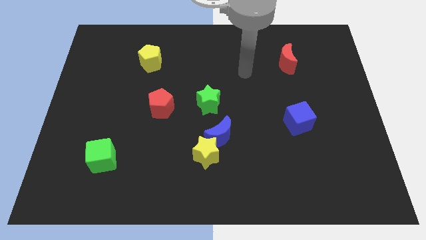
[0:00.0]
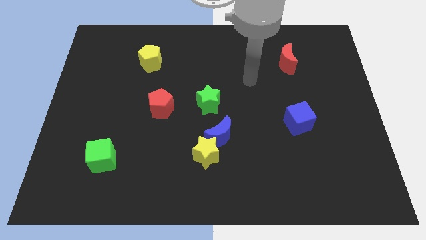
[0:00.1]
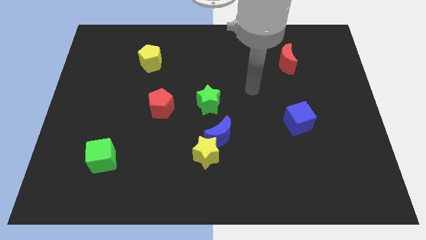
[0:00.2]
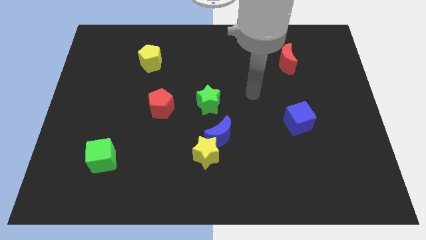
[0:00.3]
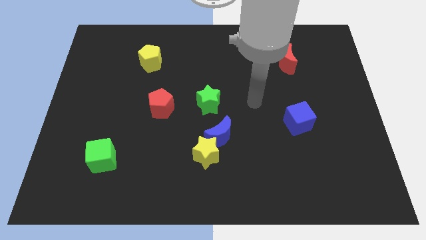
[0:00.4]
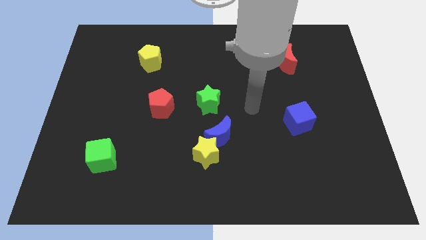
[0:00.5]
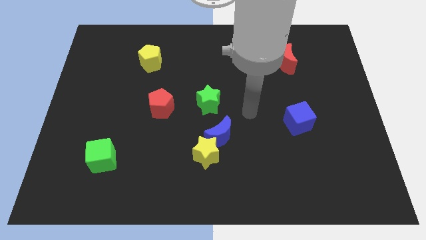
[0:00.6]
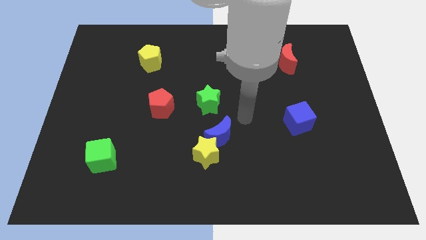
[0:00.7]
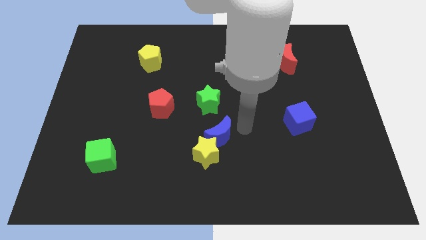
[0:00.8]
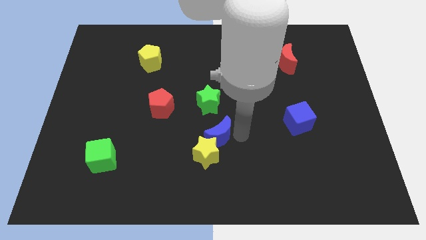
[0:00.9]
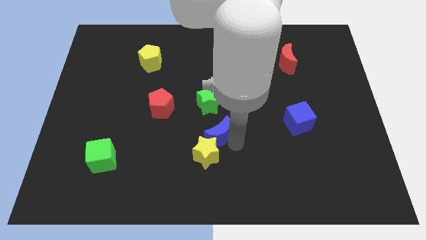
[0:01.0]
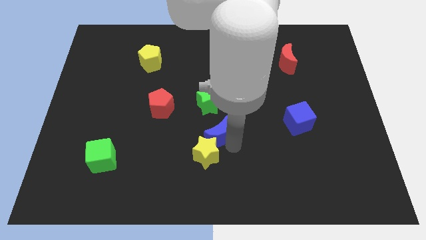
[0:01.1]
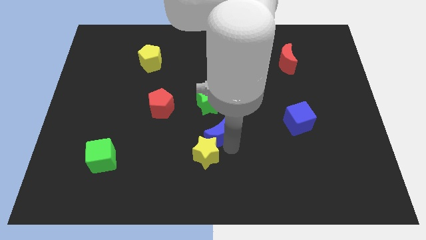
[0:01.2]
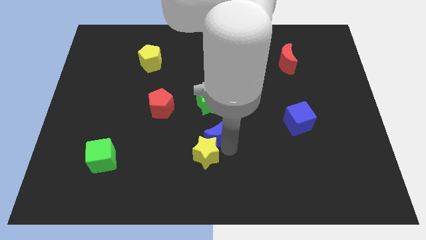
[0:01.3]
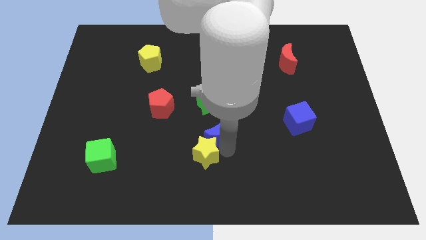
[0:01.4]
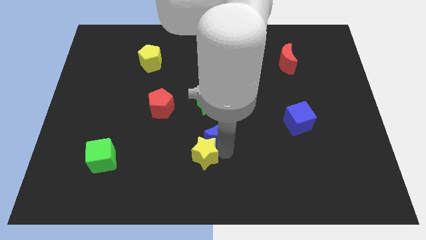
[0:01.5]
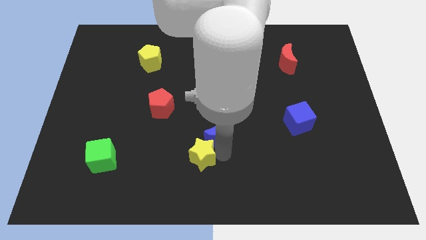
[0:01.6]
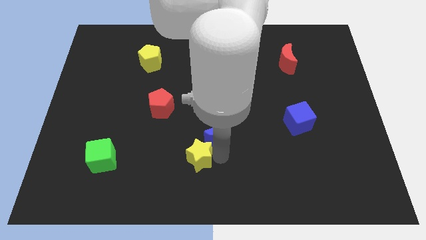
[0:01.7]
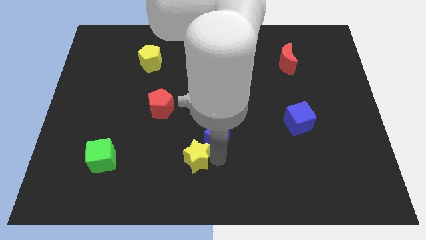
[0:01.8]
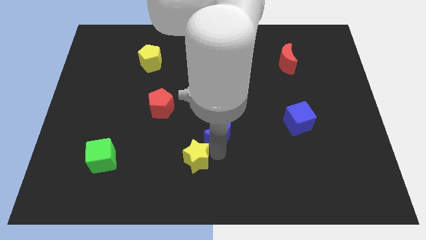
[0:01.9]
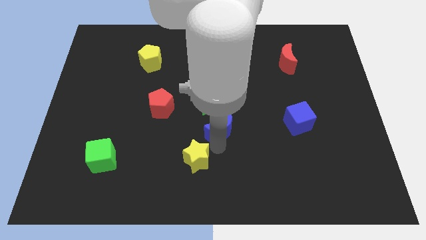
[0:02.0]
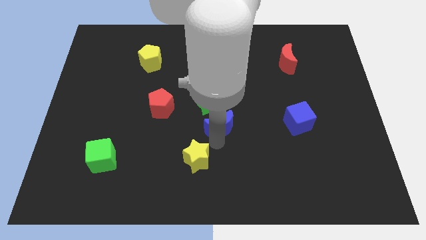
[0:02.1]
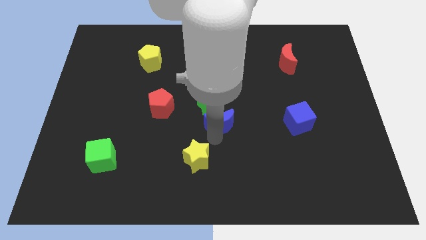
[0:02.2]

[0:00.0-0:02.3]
separate the yellow star from the blue moon

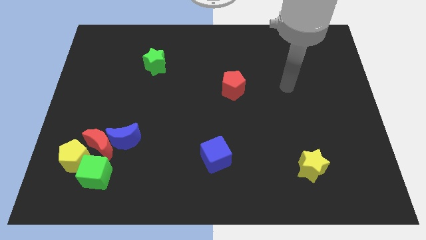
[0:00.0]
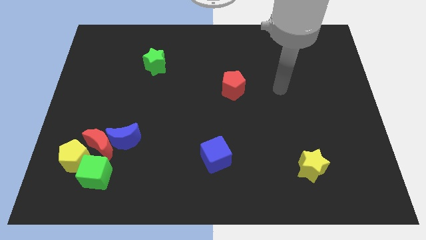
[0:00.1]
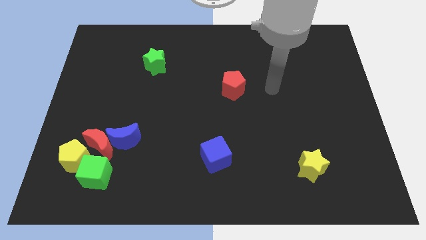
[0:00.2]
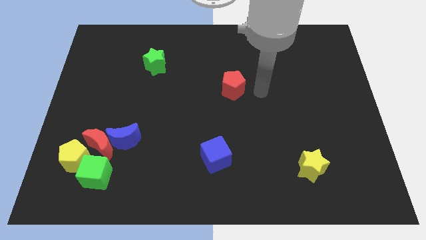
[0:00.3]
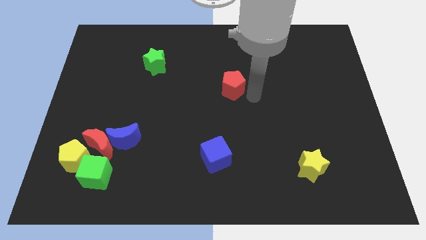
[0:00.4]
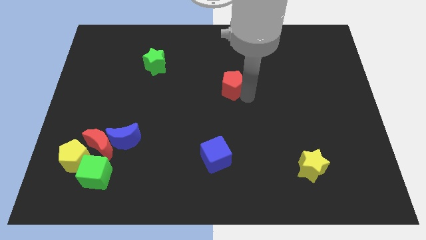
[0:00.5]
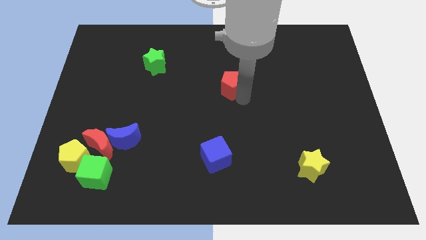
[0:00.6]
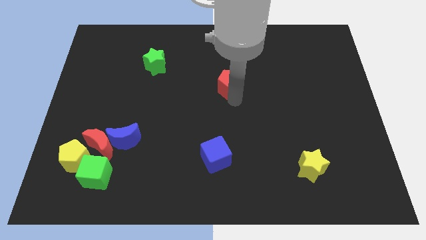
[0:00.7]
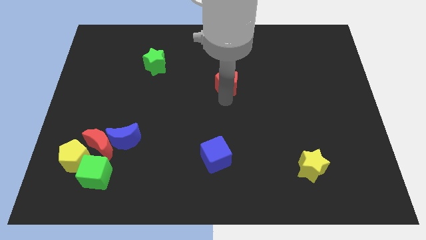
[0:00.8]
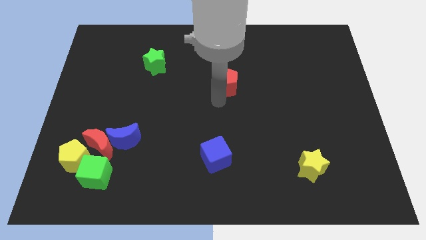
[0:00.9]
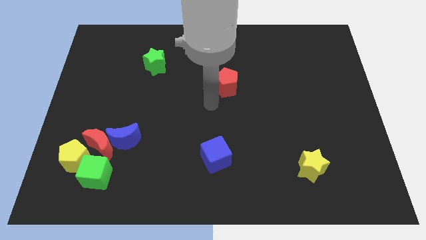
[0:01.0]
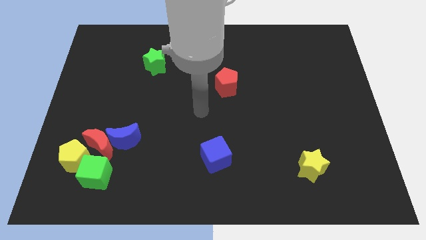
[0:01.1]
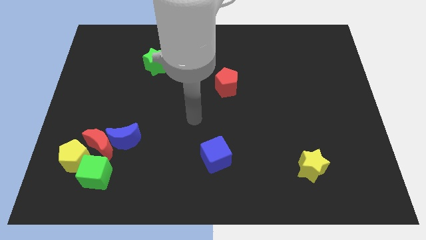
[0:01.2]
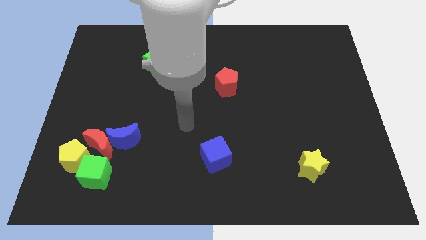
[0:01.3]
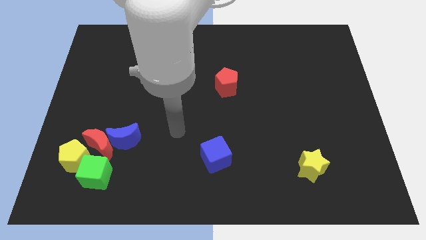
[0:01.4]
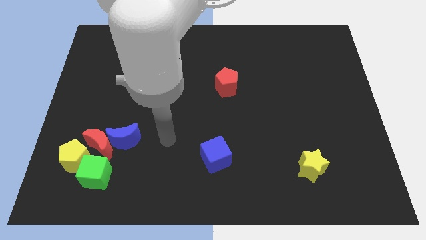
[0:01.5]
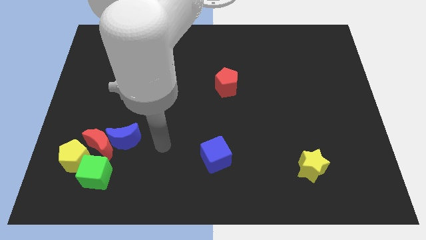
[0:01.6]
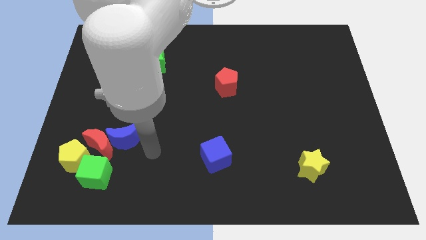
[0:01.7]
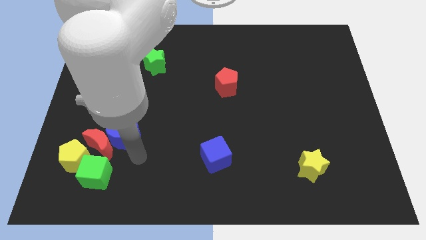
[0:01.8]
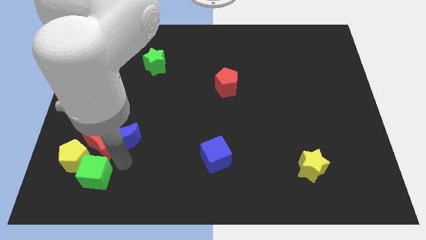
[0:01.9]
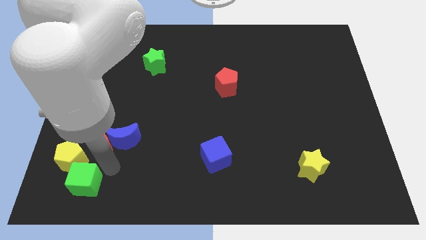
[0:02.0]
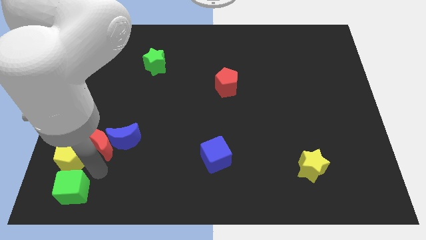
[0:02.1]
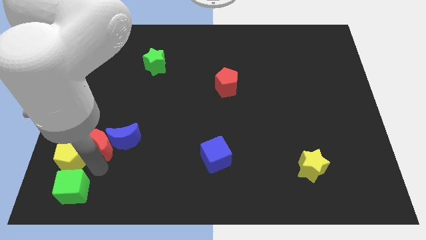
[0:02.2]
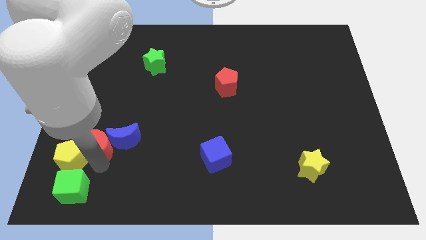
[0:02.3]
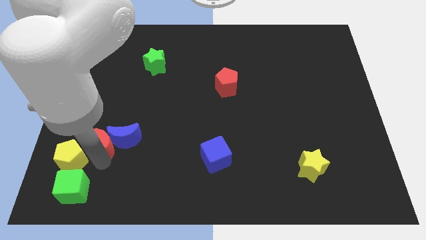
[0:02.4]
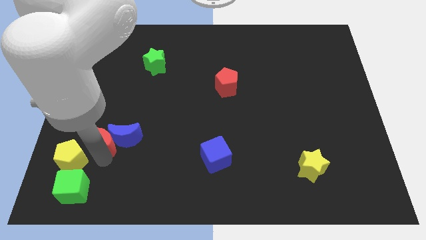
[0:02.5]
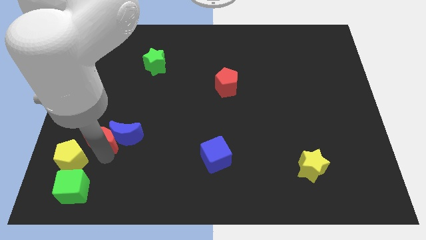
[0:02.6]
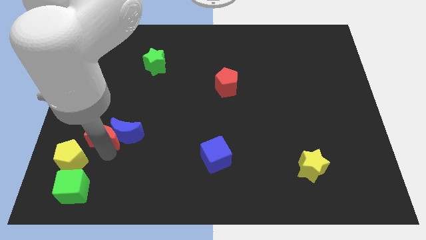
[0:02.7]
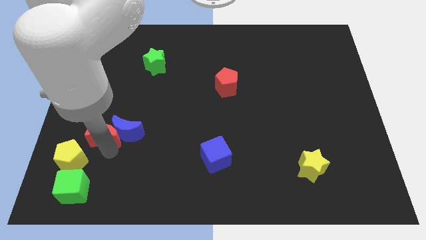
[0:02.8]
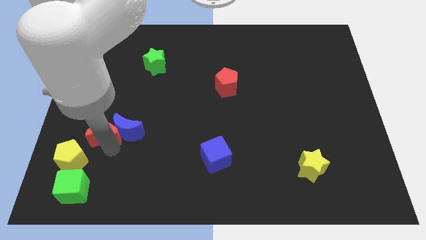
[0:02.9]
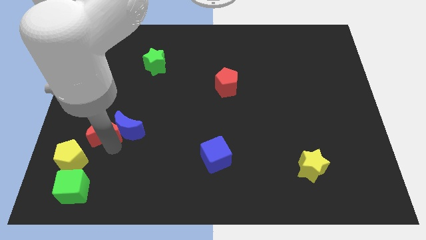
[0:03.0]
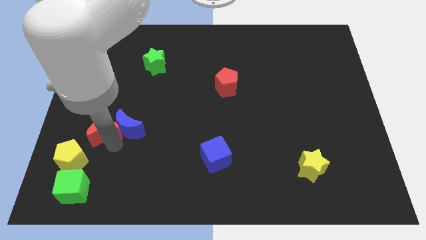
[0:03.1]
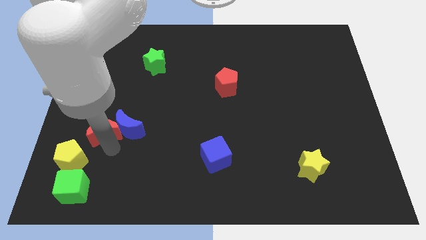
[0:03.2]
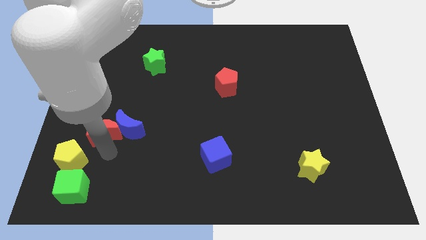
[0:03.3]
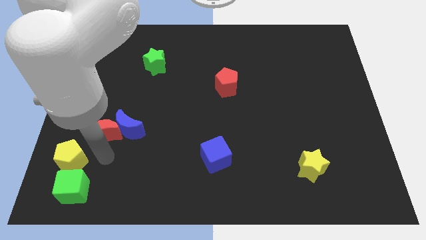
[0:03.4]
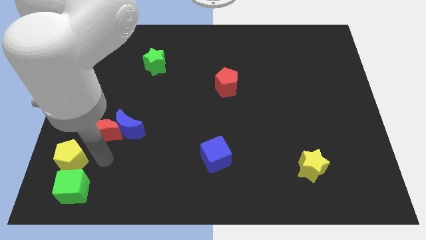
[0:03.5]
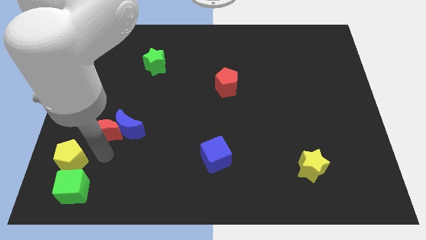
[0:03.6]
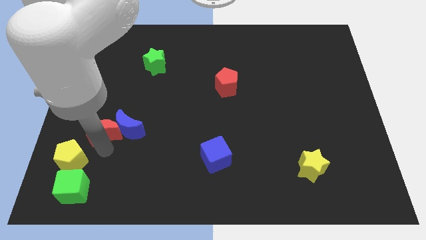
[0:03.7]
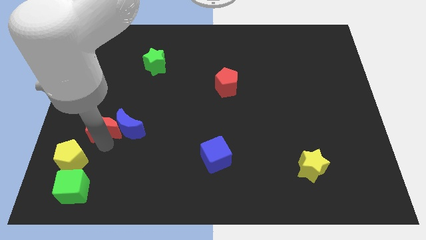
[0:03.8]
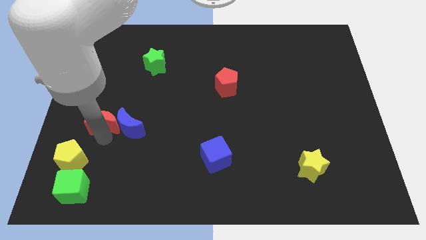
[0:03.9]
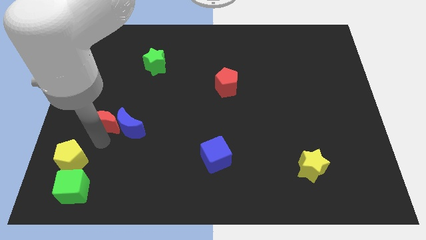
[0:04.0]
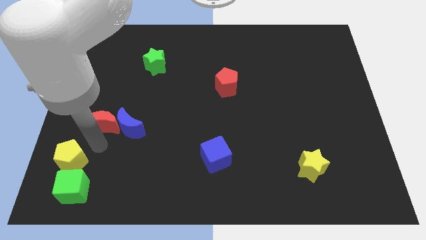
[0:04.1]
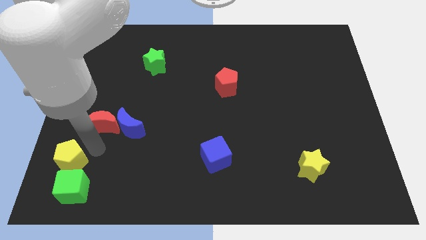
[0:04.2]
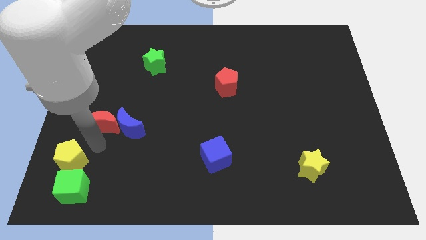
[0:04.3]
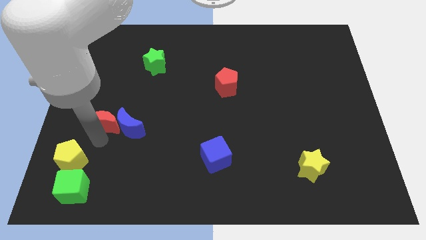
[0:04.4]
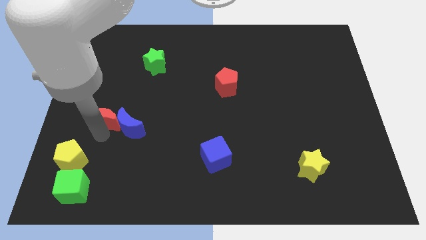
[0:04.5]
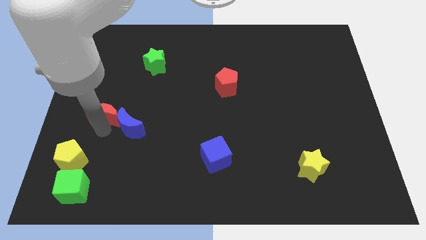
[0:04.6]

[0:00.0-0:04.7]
separate the red moon from the blue moon, yellow pentagon, and green cube

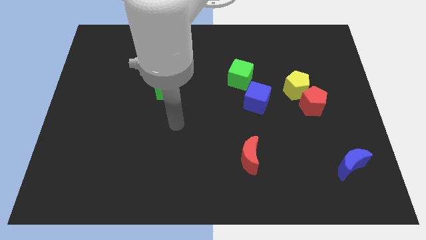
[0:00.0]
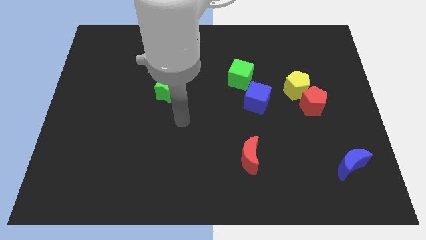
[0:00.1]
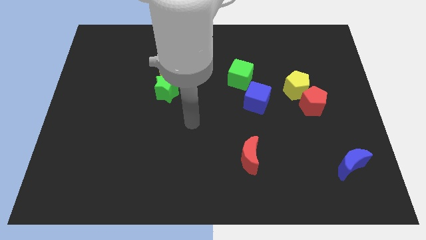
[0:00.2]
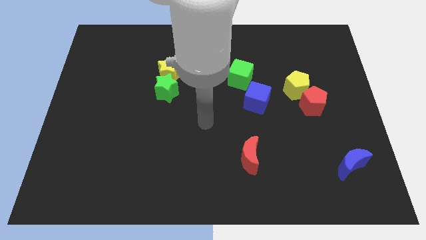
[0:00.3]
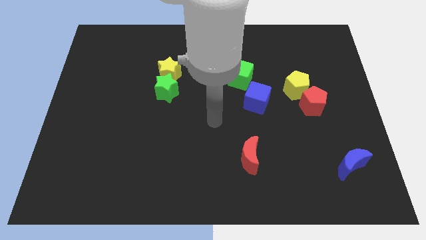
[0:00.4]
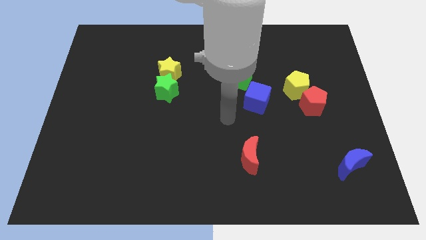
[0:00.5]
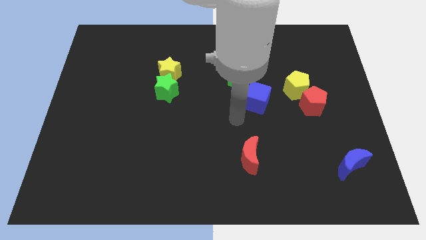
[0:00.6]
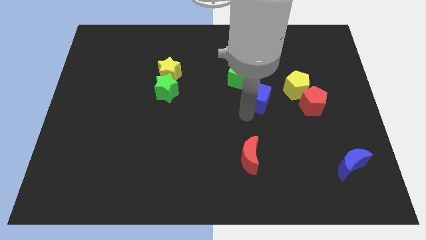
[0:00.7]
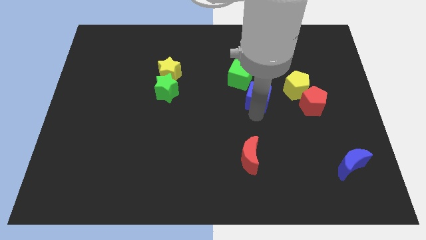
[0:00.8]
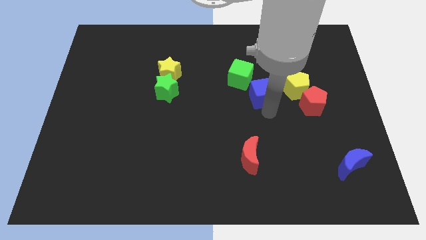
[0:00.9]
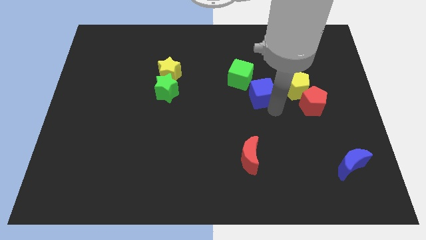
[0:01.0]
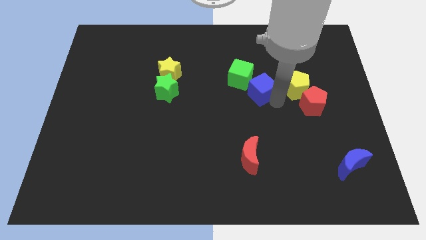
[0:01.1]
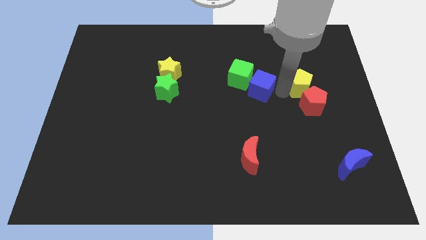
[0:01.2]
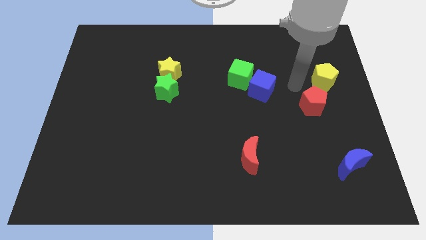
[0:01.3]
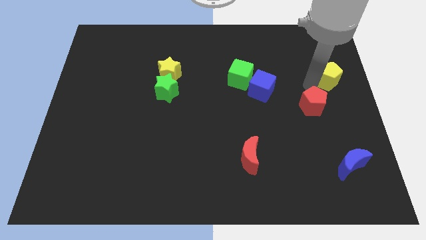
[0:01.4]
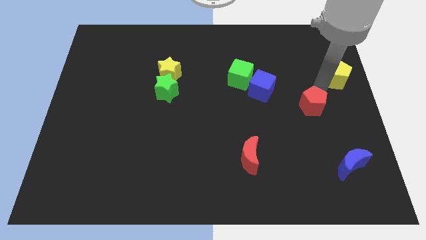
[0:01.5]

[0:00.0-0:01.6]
move the red pentagon away from the yellow pentagon

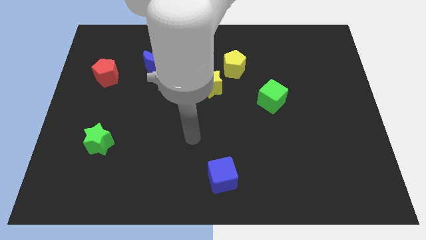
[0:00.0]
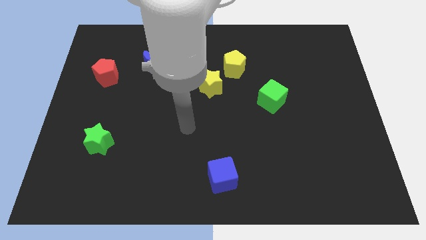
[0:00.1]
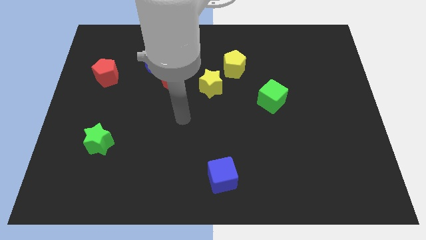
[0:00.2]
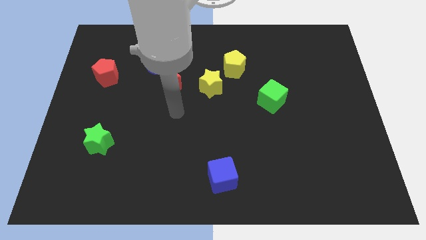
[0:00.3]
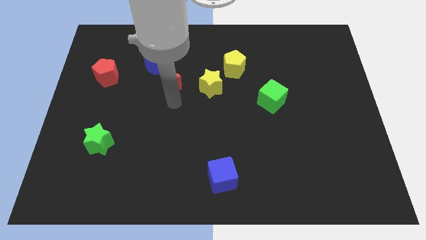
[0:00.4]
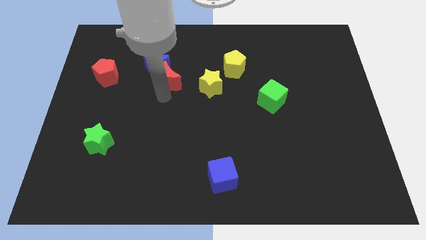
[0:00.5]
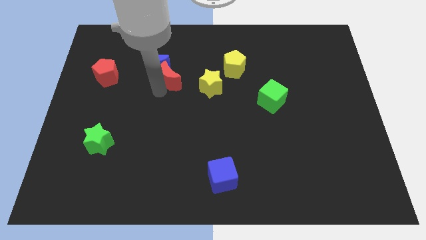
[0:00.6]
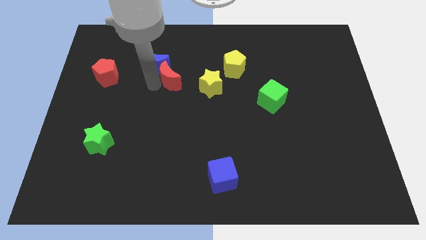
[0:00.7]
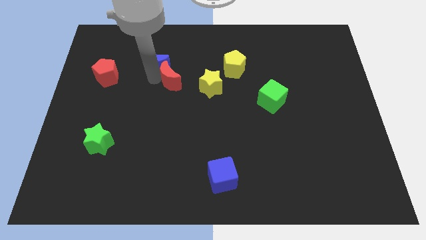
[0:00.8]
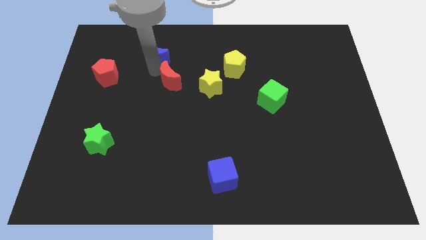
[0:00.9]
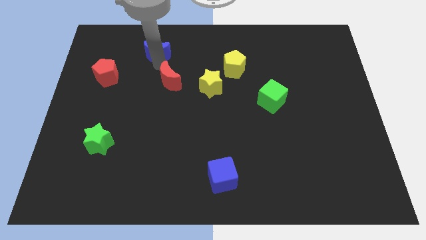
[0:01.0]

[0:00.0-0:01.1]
pull the red moon apart from the blue moon
